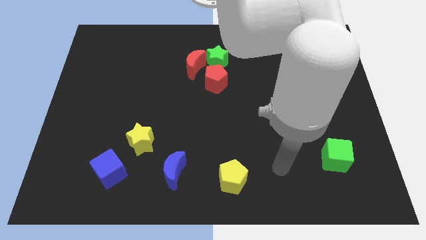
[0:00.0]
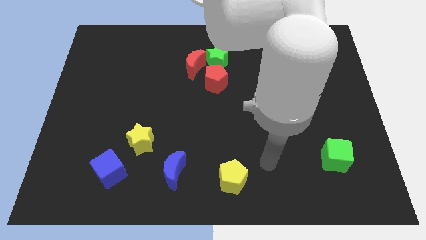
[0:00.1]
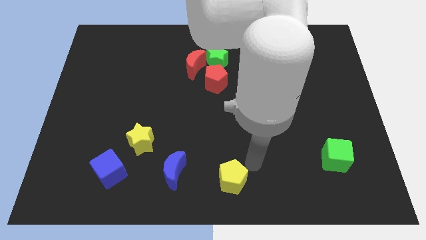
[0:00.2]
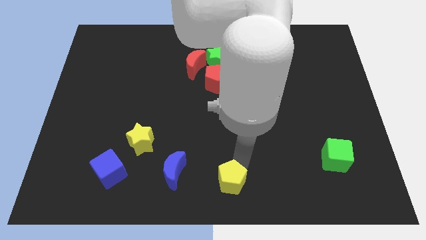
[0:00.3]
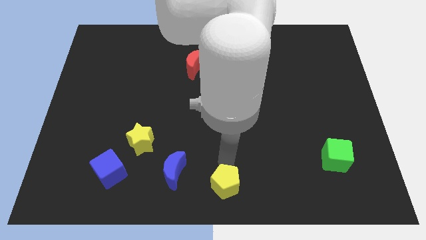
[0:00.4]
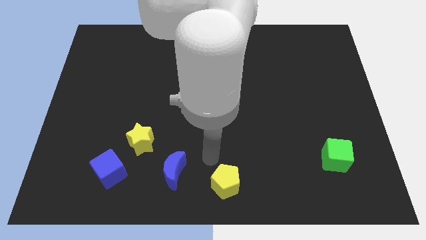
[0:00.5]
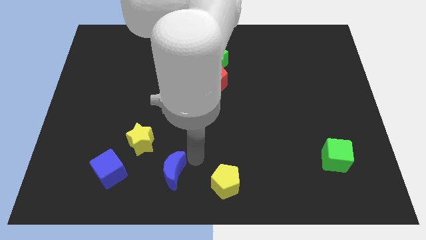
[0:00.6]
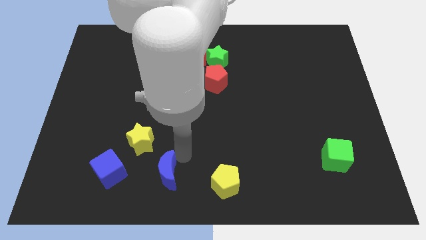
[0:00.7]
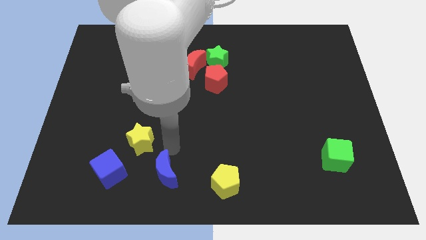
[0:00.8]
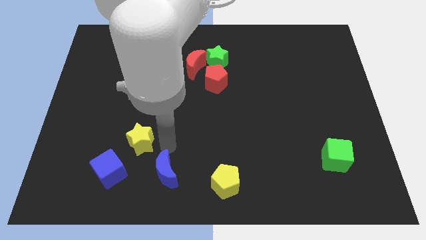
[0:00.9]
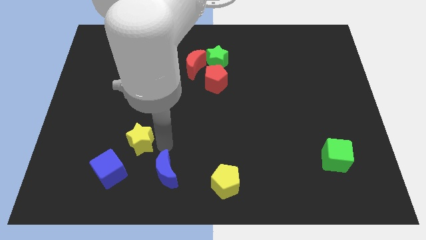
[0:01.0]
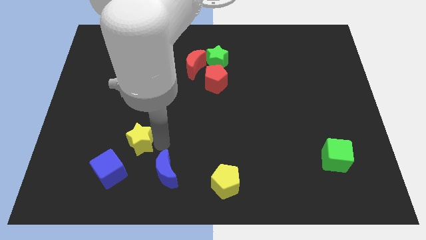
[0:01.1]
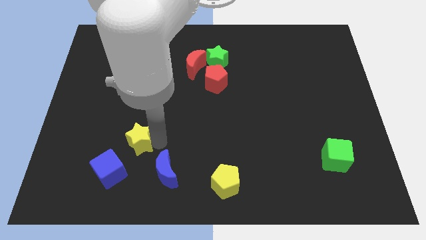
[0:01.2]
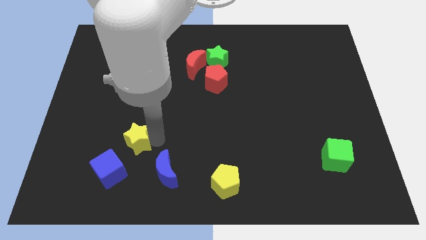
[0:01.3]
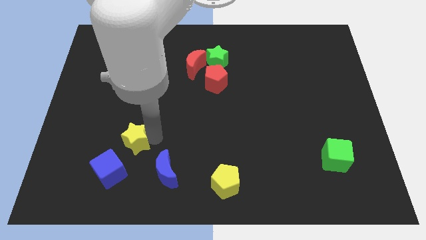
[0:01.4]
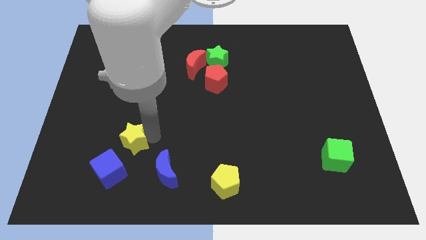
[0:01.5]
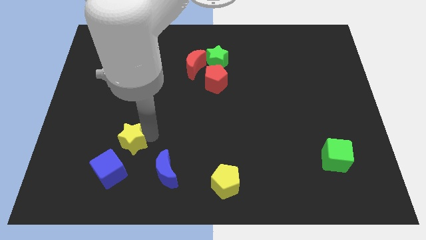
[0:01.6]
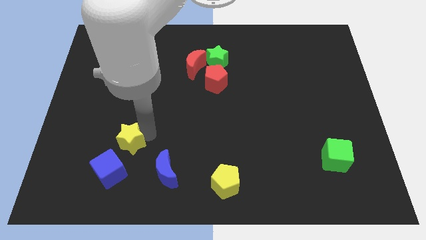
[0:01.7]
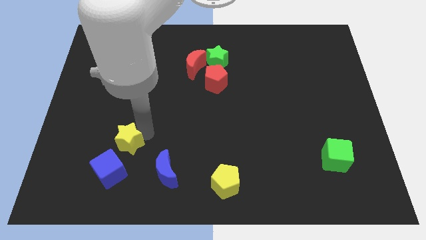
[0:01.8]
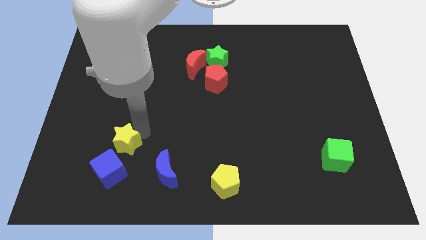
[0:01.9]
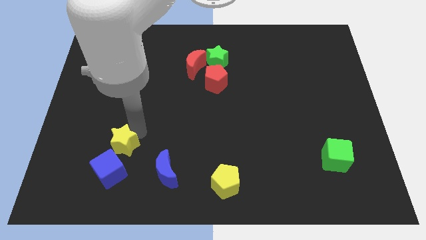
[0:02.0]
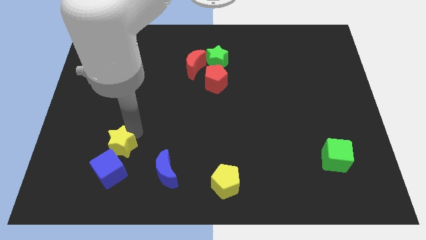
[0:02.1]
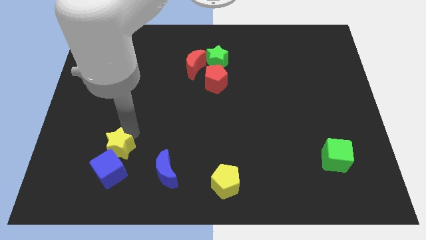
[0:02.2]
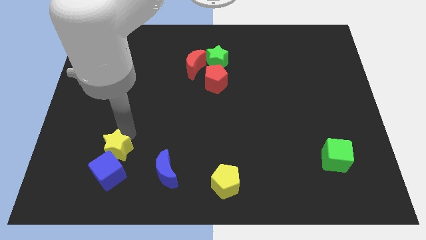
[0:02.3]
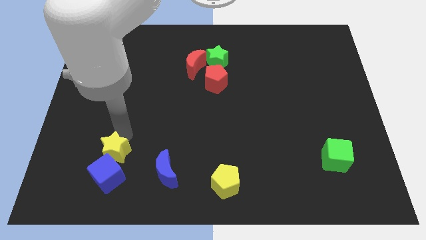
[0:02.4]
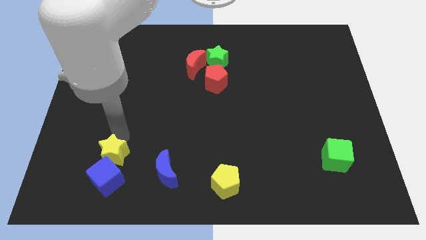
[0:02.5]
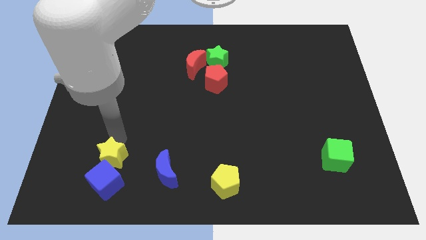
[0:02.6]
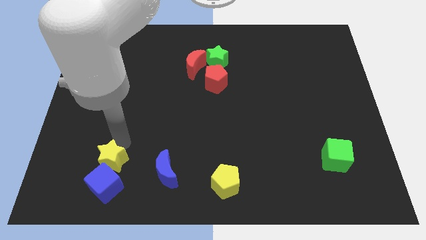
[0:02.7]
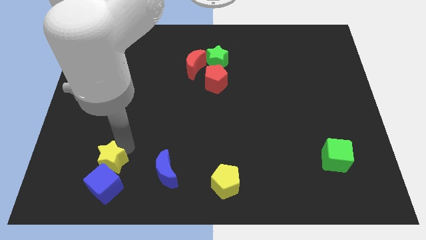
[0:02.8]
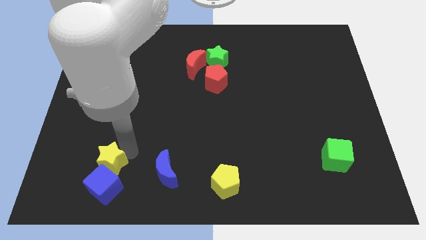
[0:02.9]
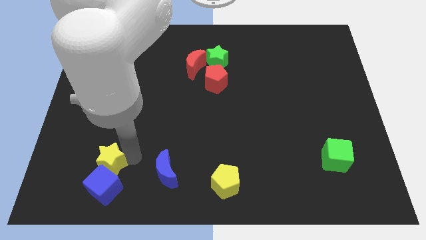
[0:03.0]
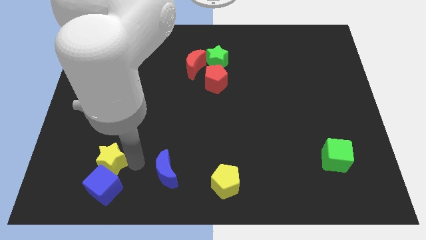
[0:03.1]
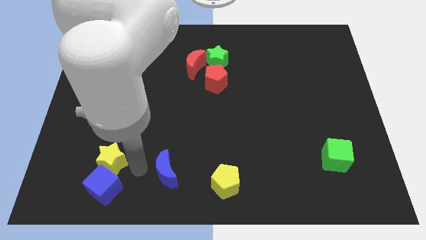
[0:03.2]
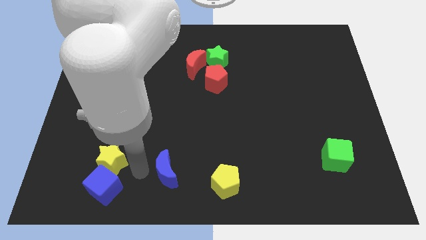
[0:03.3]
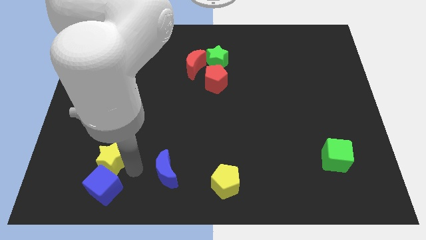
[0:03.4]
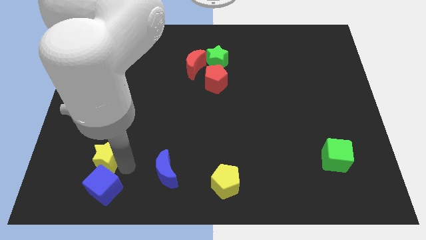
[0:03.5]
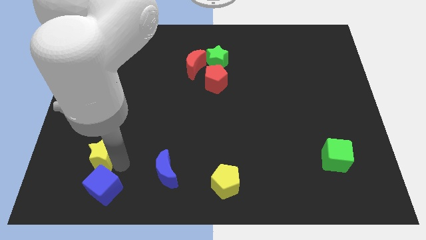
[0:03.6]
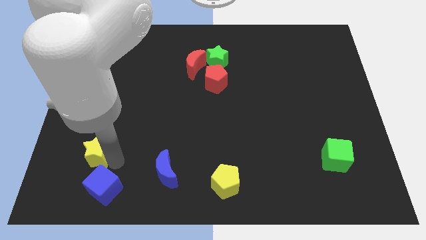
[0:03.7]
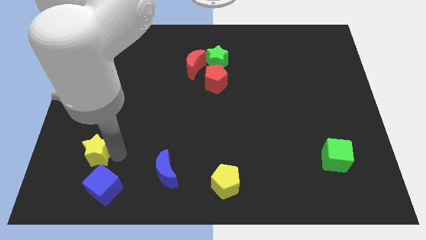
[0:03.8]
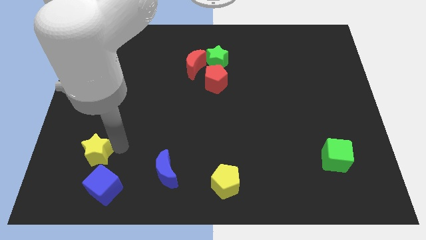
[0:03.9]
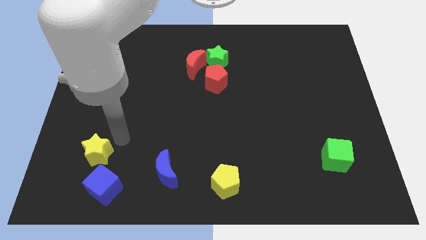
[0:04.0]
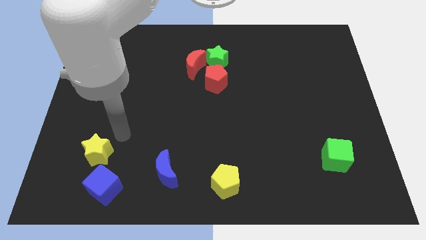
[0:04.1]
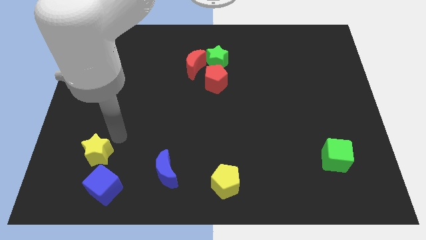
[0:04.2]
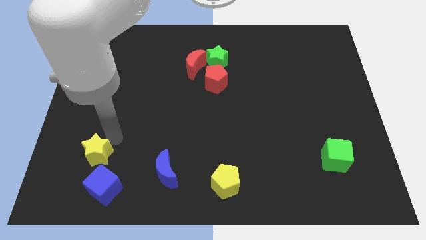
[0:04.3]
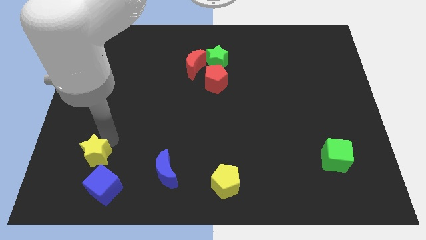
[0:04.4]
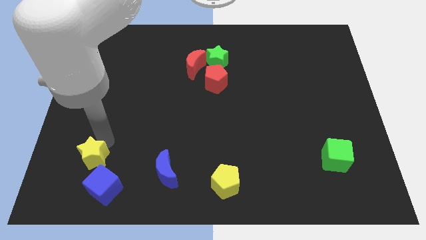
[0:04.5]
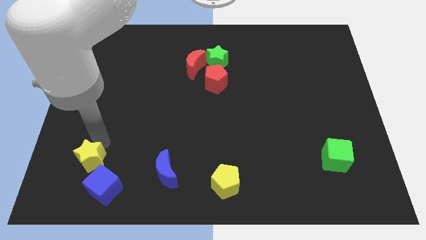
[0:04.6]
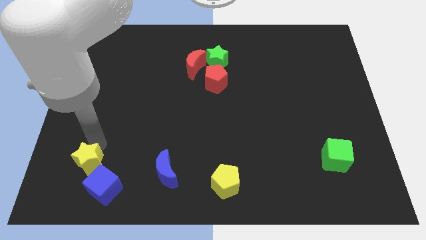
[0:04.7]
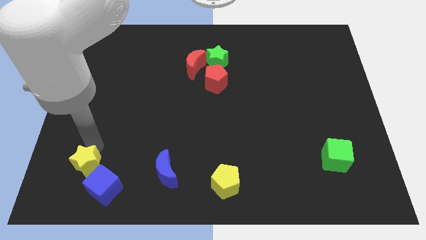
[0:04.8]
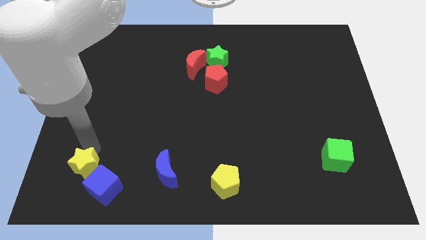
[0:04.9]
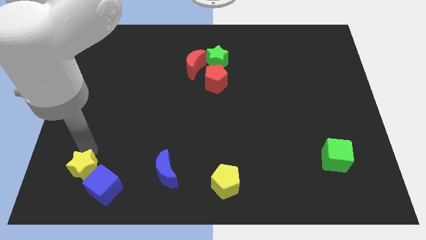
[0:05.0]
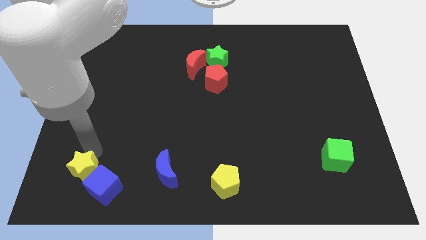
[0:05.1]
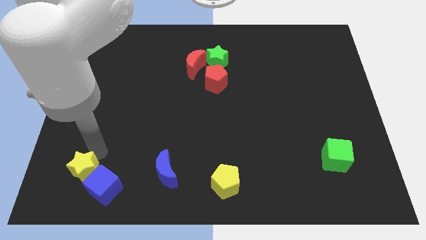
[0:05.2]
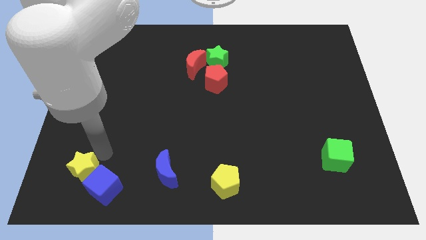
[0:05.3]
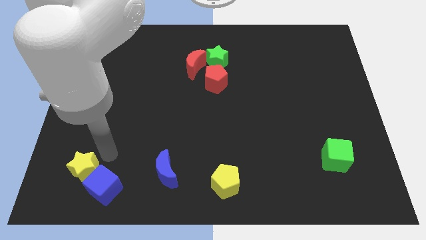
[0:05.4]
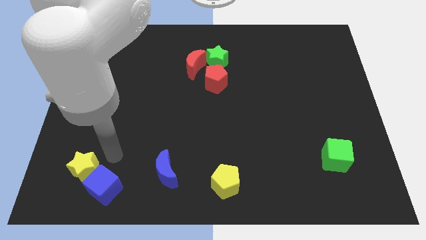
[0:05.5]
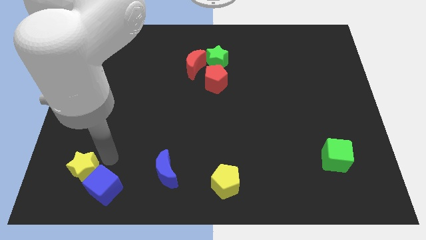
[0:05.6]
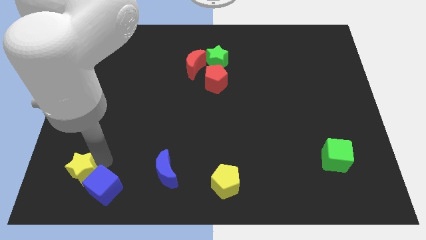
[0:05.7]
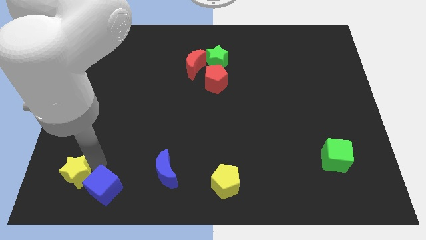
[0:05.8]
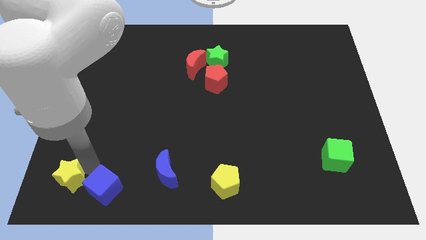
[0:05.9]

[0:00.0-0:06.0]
slide the yellow star to the bottom left

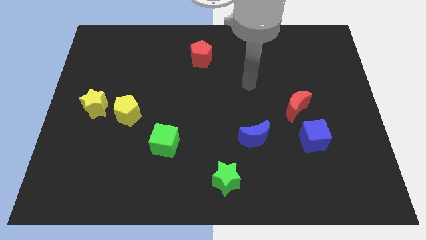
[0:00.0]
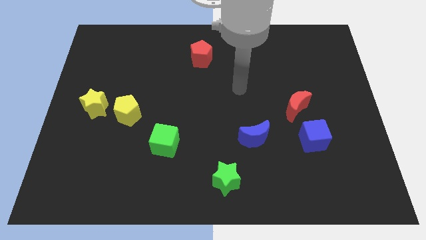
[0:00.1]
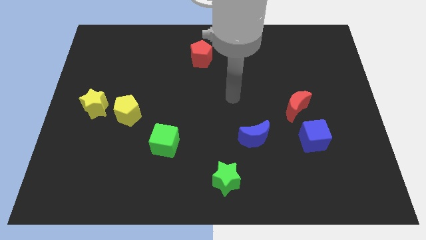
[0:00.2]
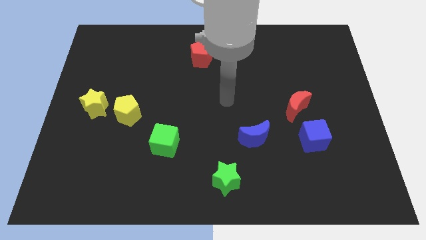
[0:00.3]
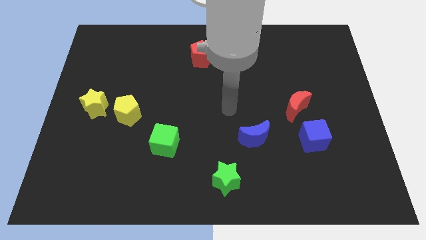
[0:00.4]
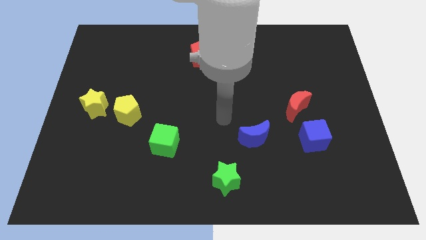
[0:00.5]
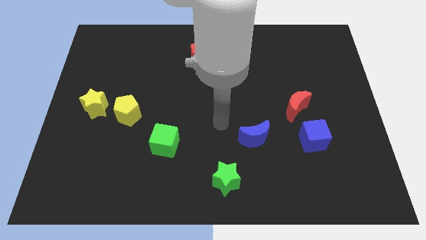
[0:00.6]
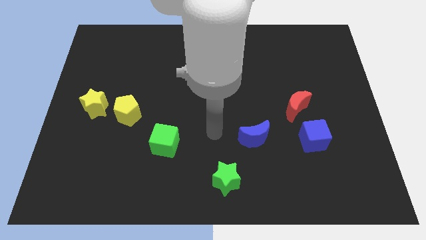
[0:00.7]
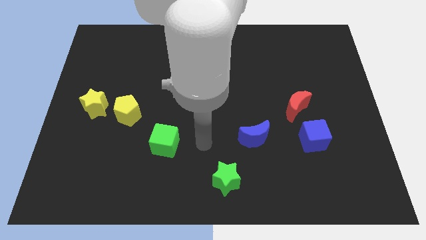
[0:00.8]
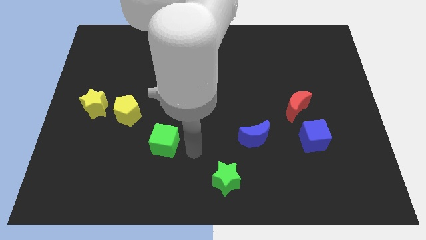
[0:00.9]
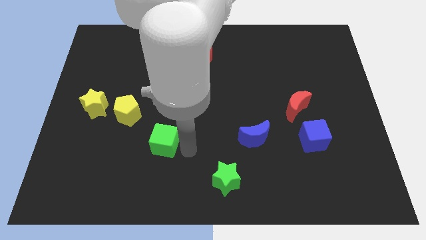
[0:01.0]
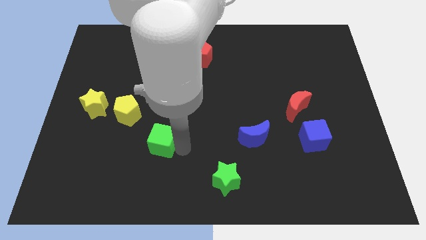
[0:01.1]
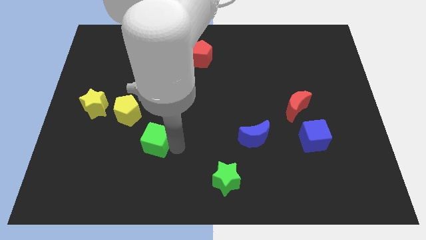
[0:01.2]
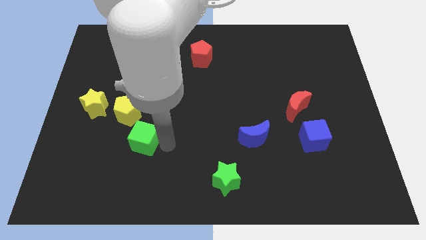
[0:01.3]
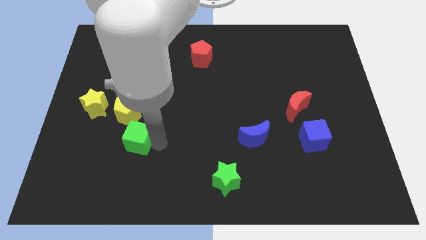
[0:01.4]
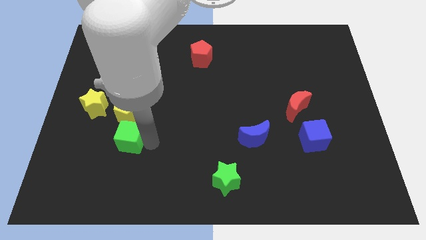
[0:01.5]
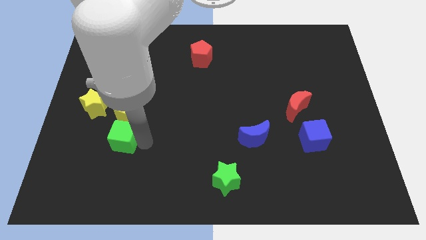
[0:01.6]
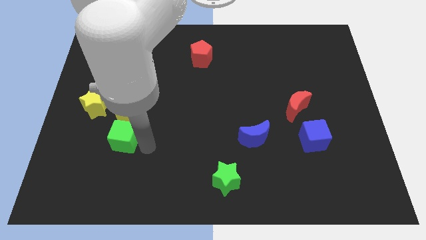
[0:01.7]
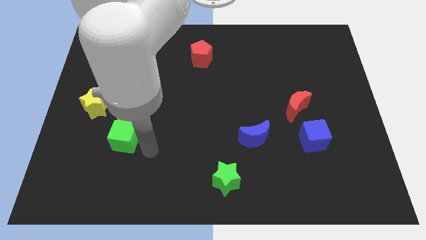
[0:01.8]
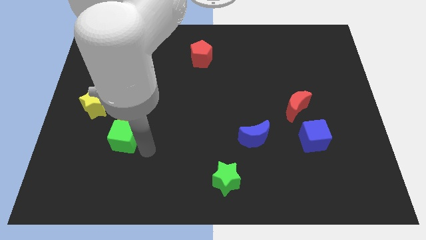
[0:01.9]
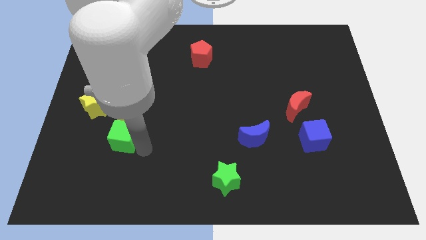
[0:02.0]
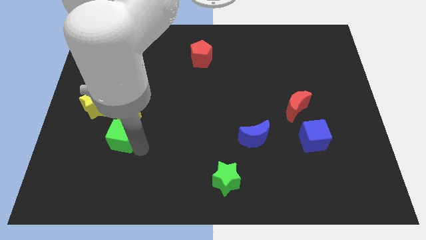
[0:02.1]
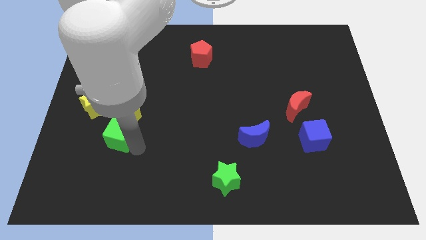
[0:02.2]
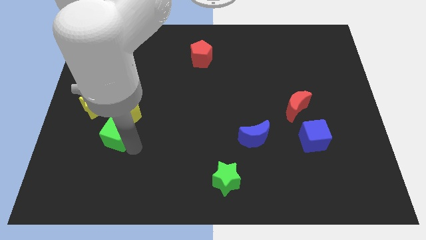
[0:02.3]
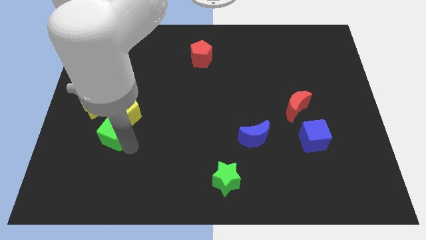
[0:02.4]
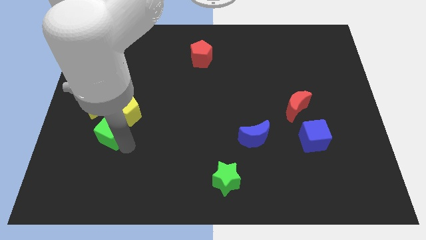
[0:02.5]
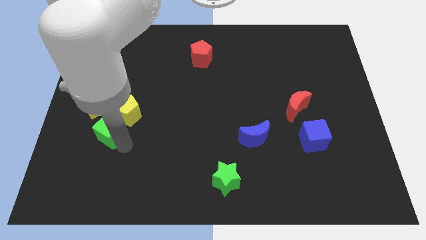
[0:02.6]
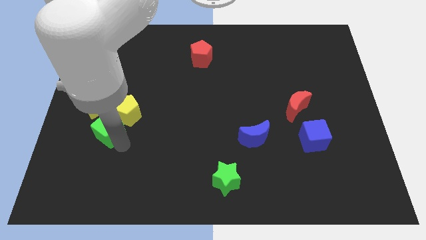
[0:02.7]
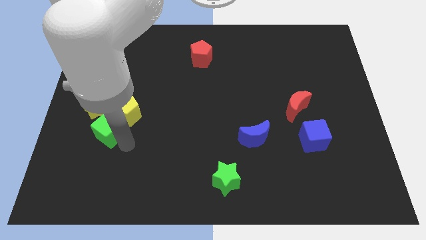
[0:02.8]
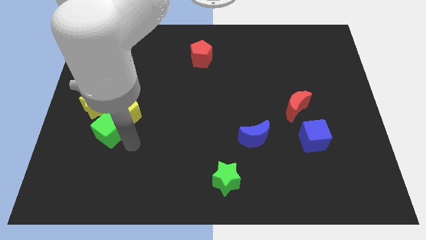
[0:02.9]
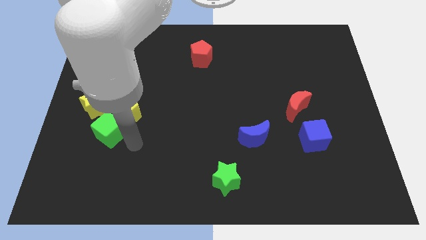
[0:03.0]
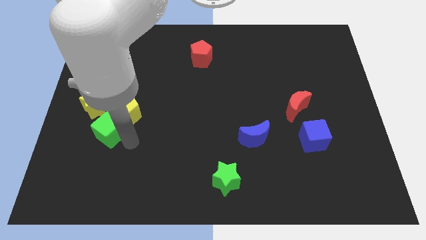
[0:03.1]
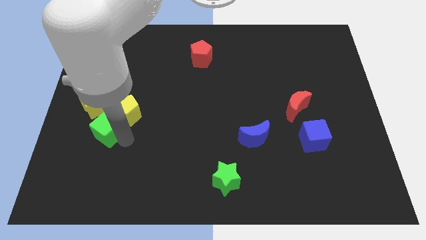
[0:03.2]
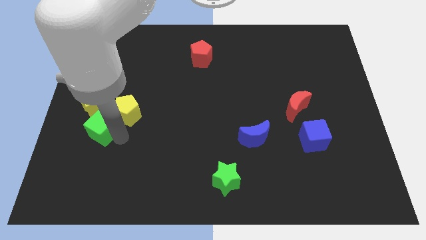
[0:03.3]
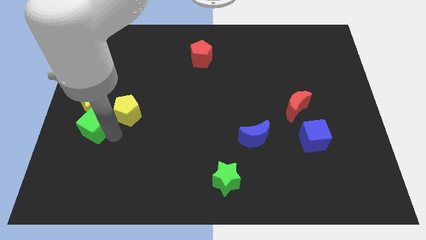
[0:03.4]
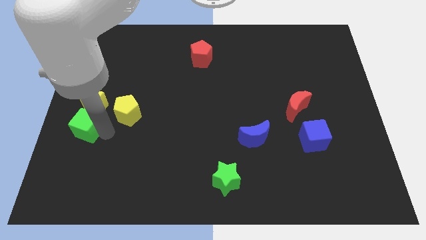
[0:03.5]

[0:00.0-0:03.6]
put the green cube to the center left
